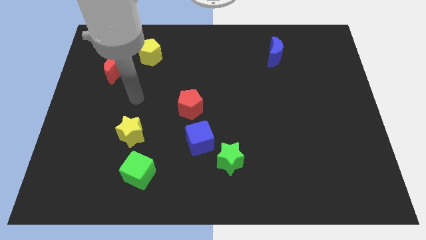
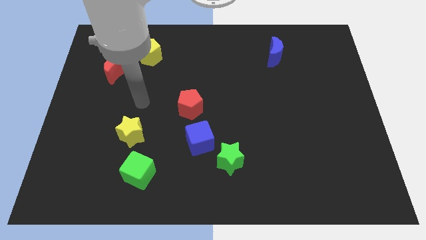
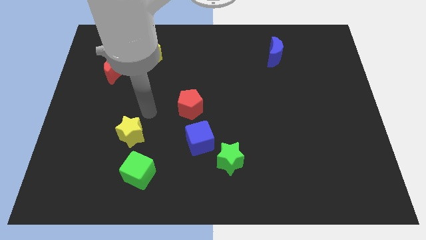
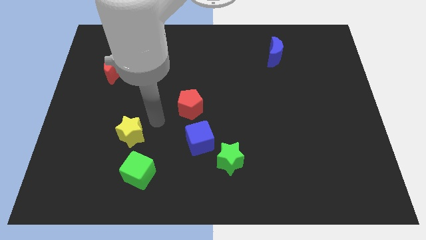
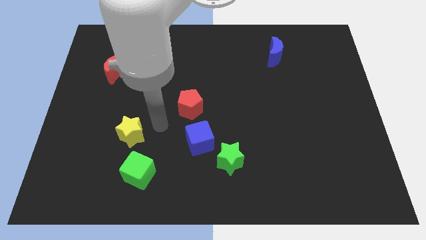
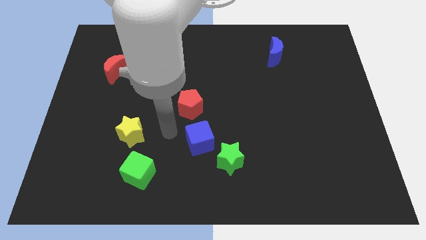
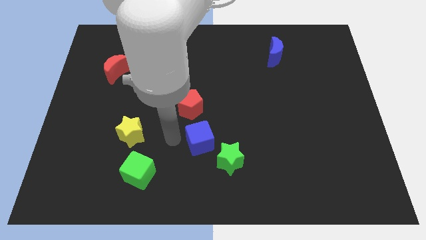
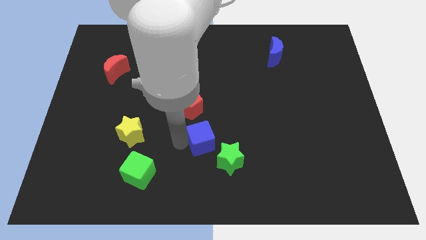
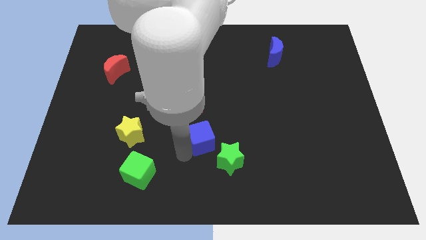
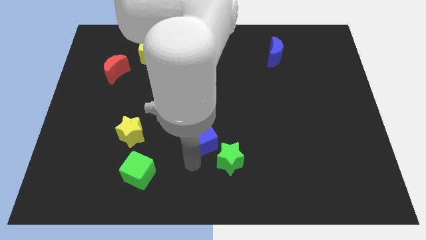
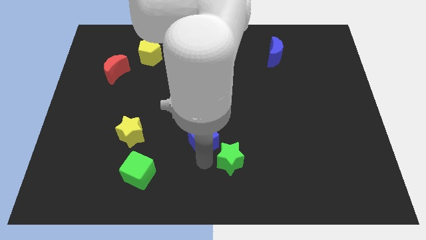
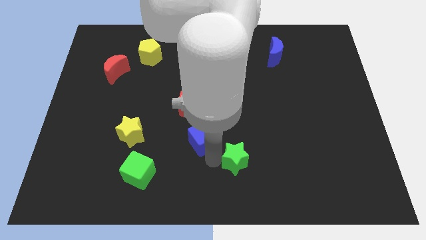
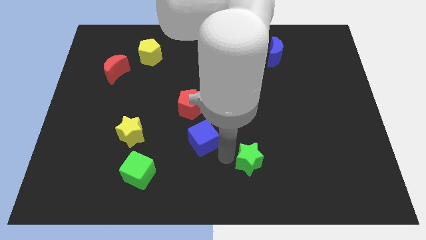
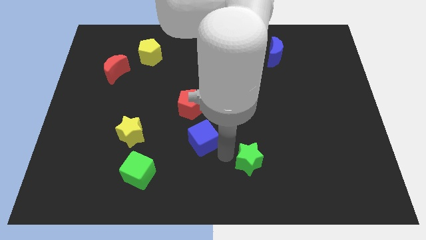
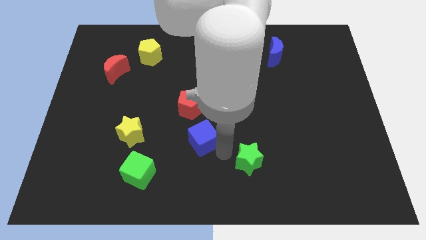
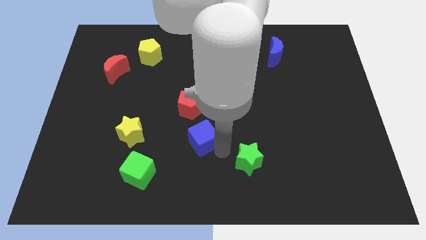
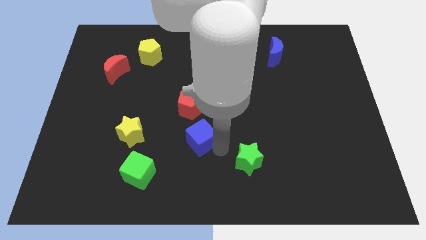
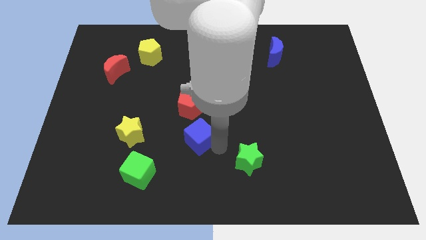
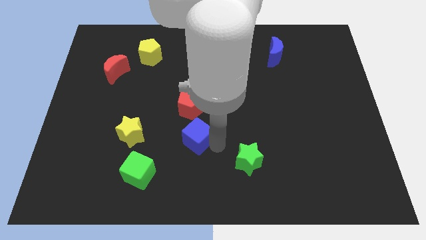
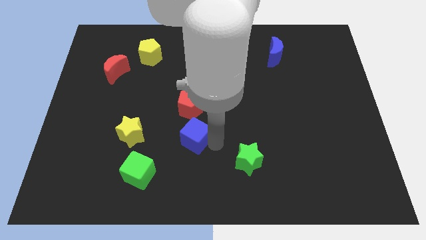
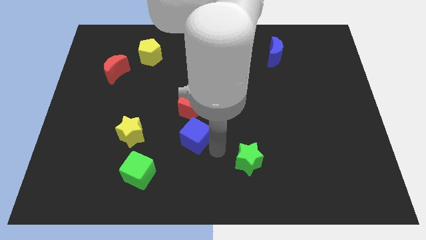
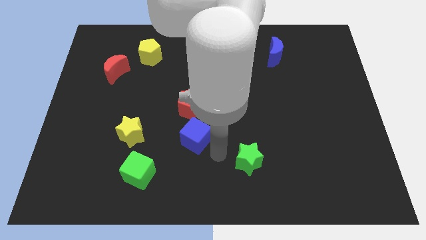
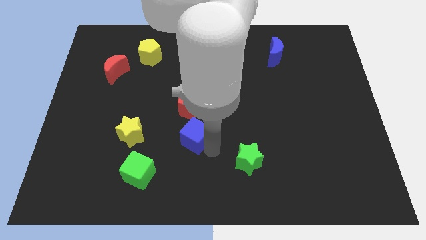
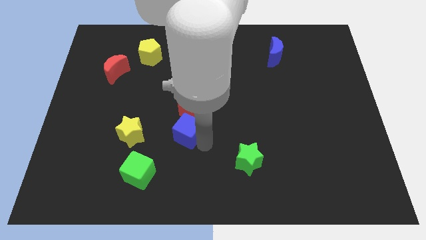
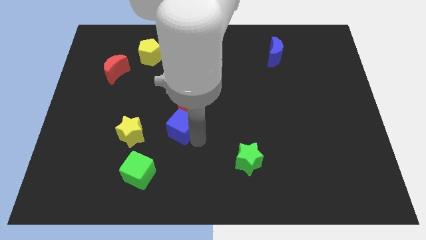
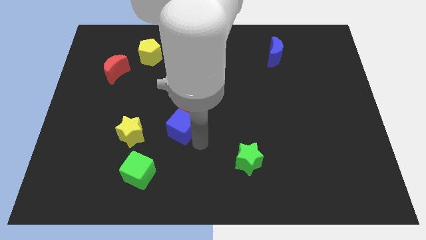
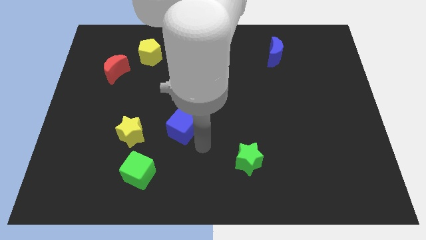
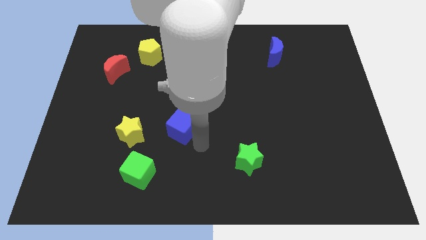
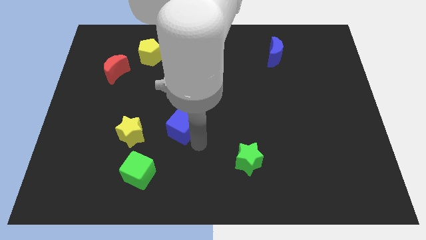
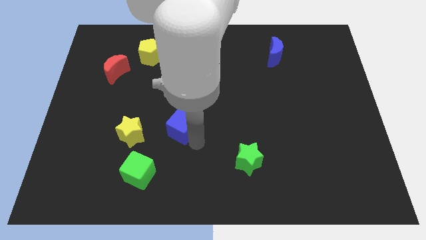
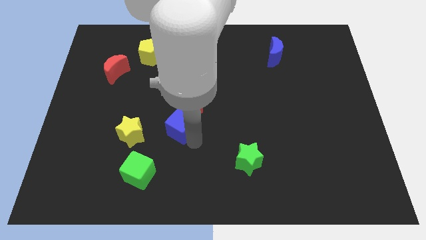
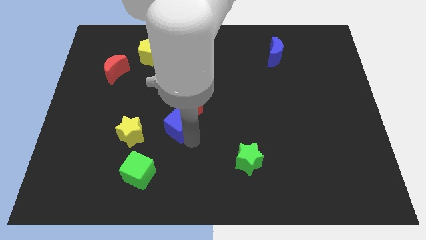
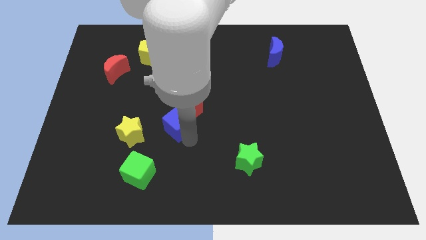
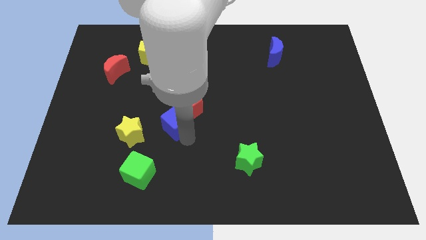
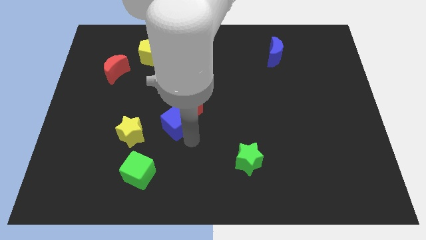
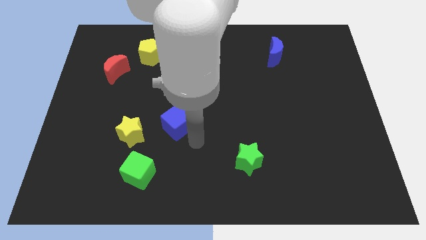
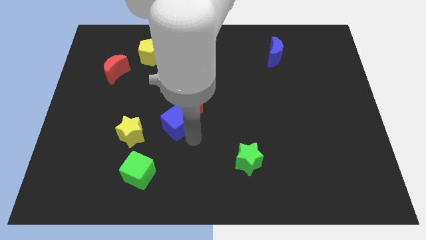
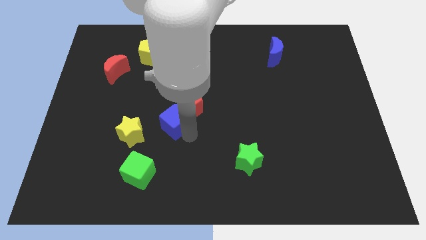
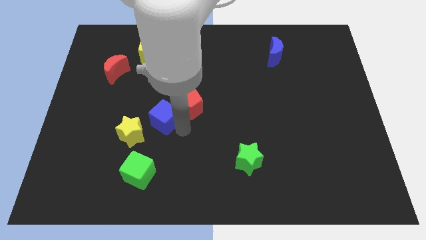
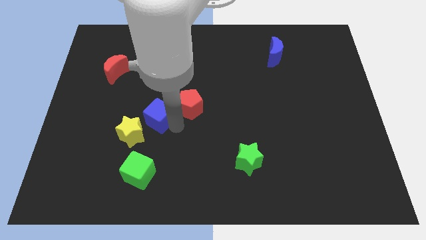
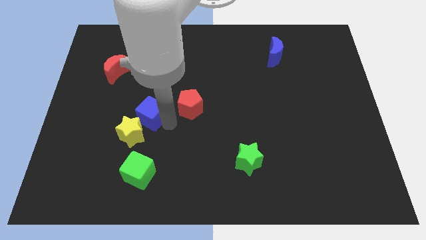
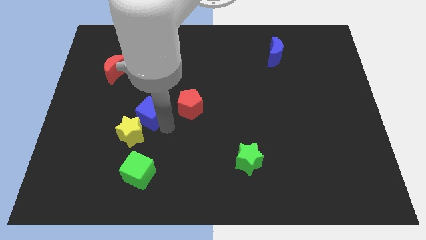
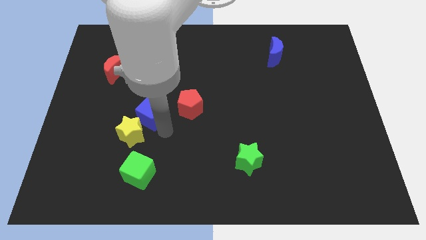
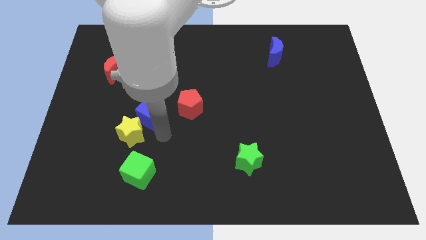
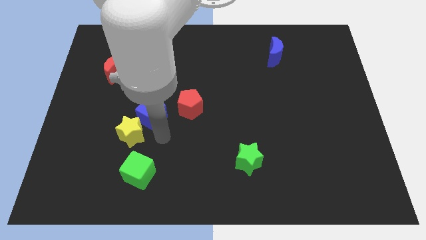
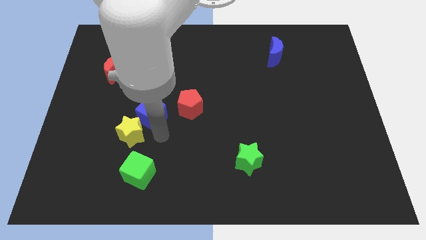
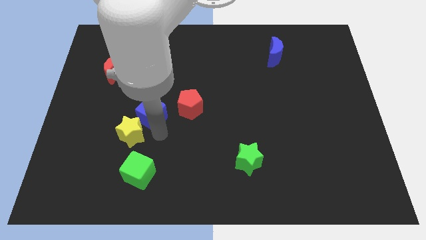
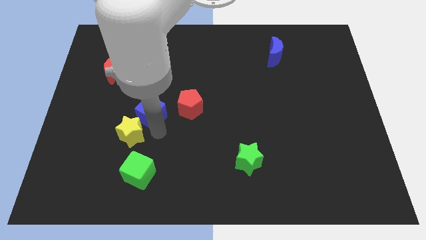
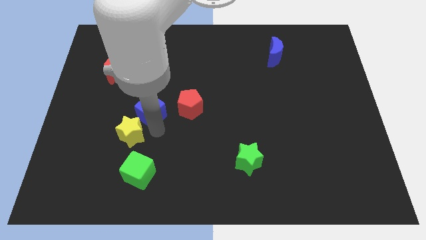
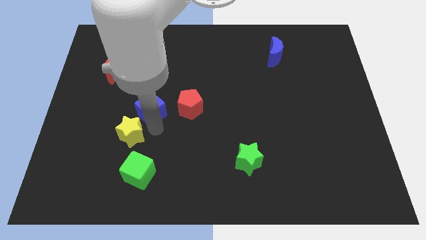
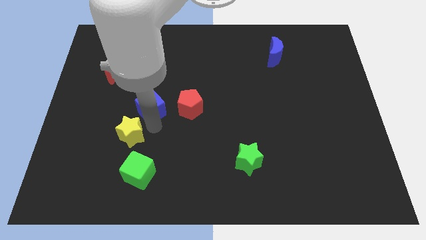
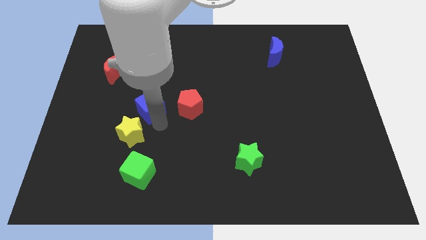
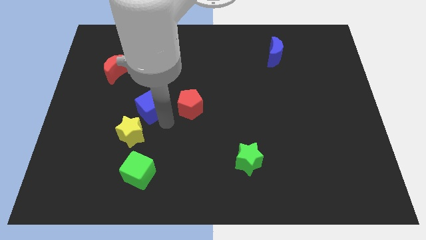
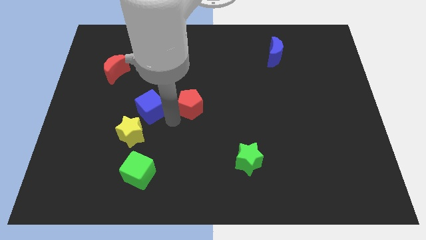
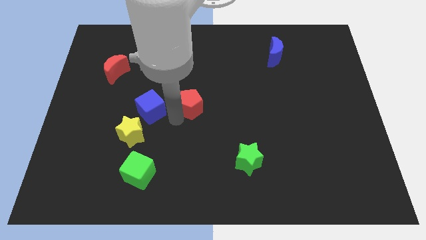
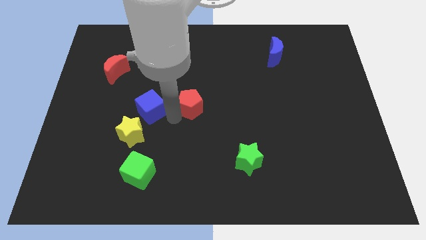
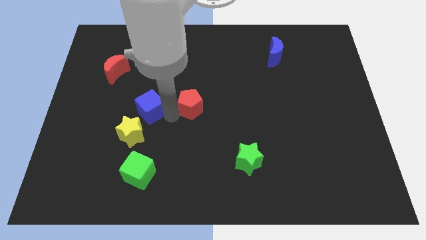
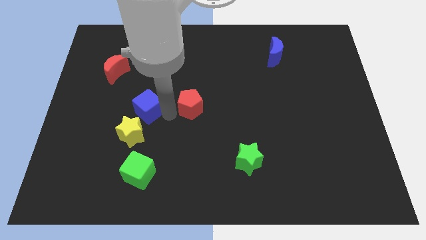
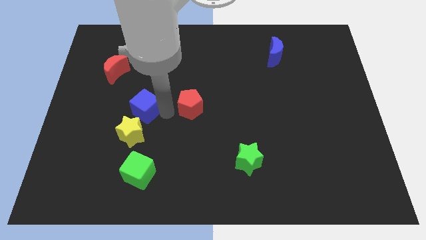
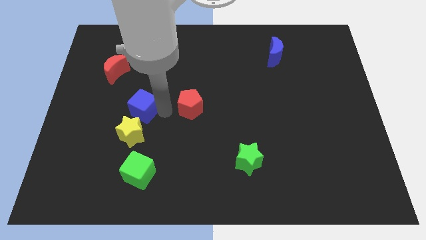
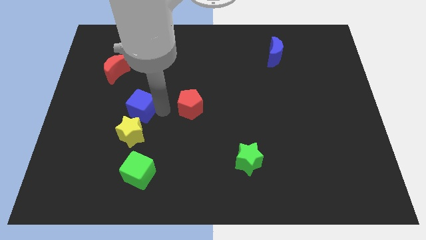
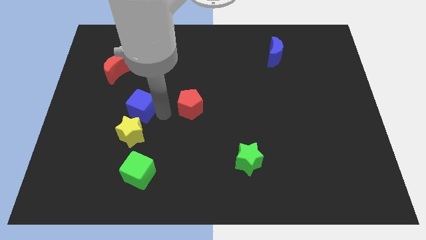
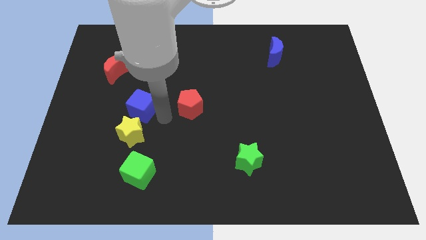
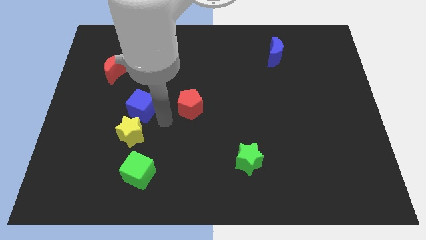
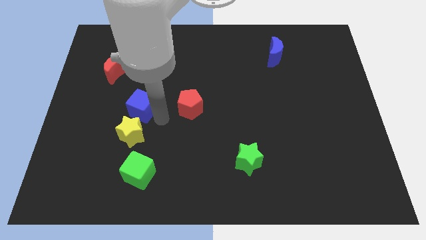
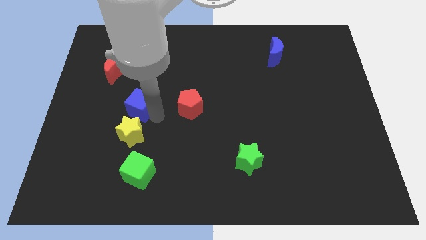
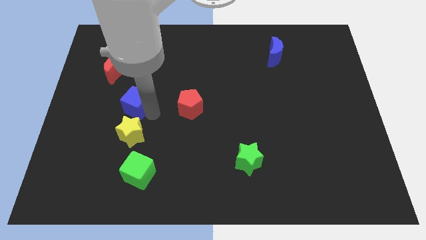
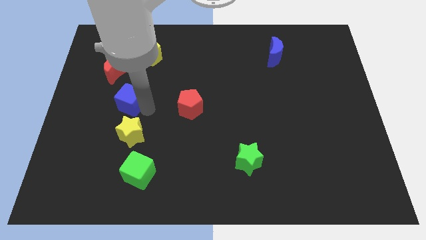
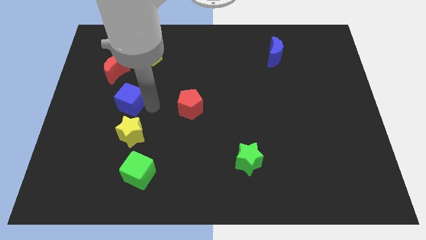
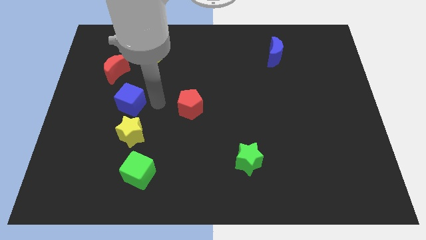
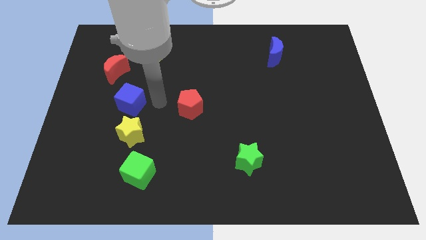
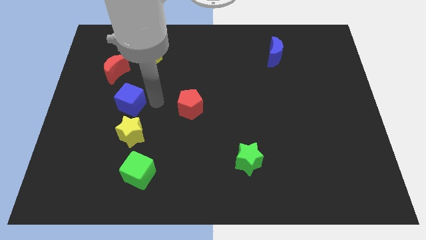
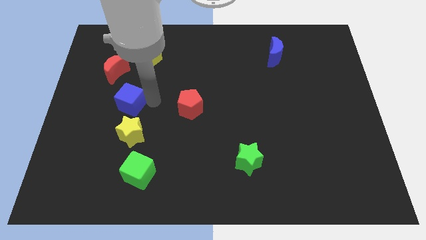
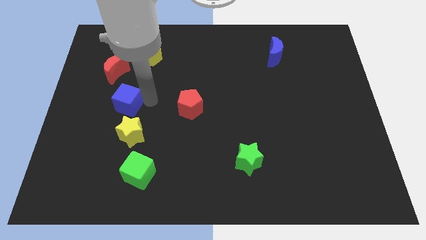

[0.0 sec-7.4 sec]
push the blue cube to the bottom of the red moon
